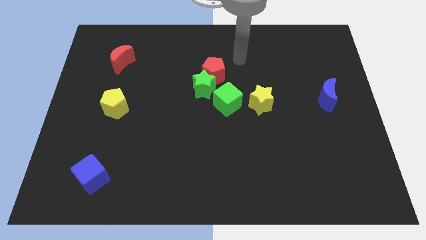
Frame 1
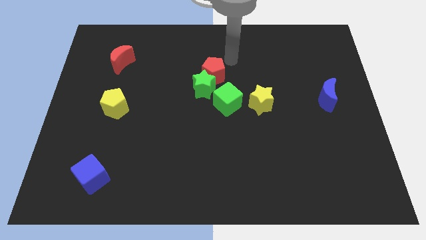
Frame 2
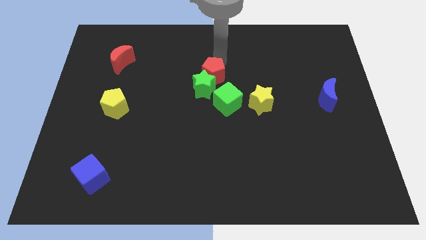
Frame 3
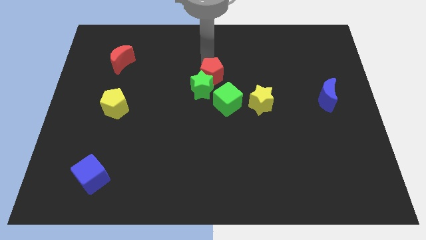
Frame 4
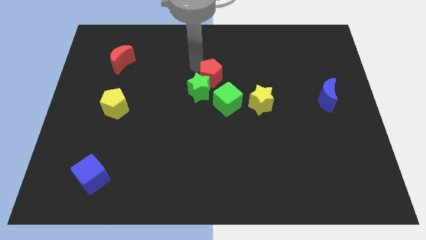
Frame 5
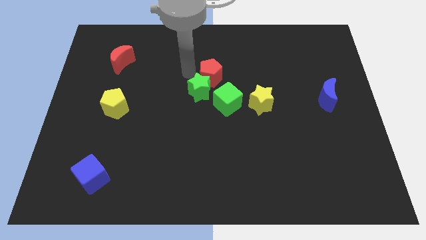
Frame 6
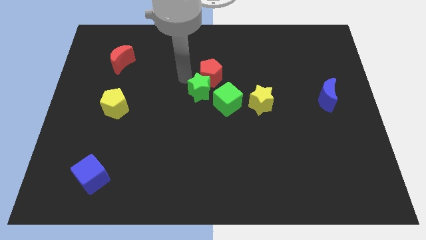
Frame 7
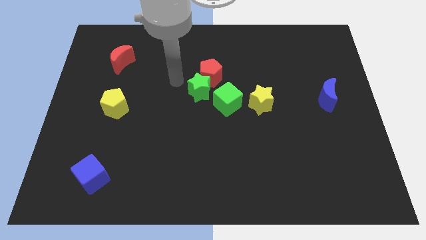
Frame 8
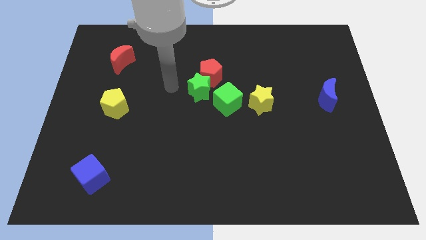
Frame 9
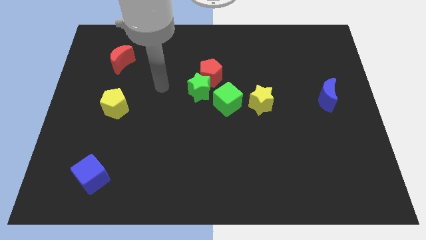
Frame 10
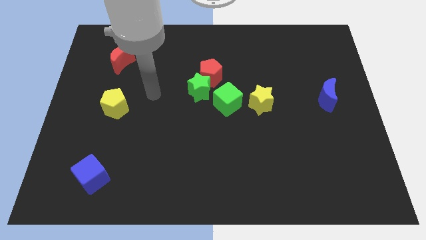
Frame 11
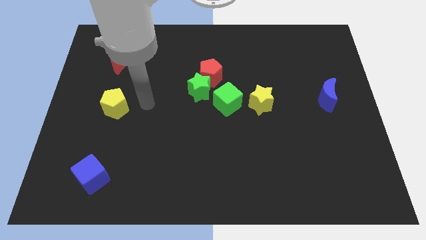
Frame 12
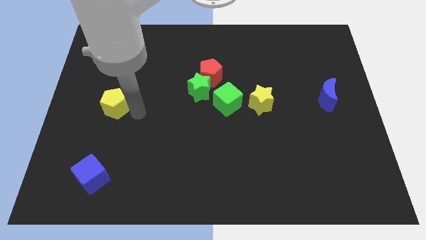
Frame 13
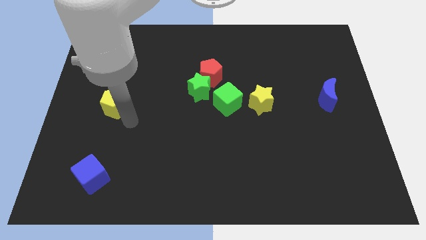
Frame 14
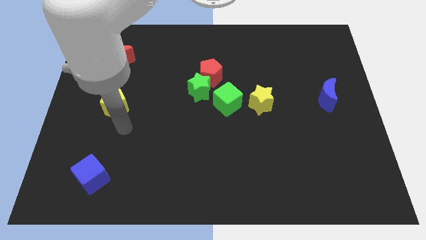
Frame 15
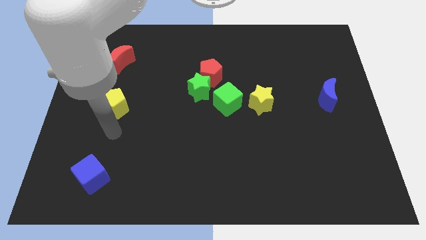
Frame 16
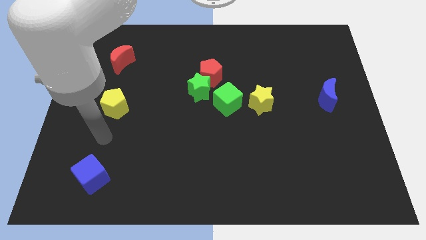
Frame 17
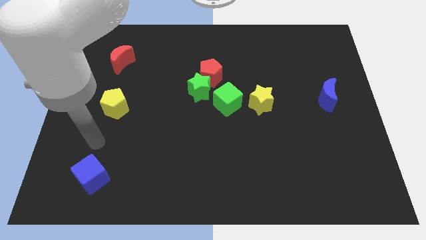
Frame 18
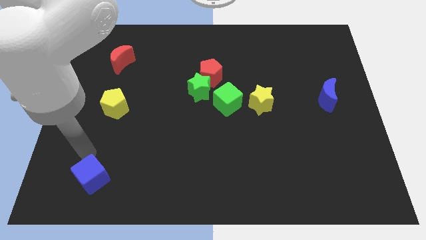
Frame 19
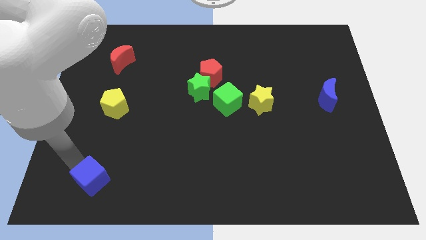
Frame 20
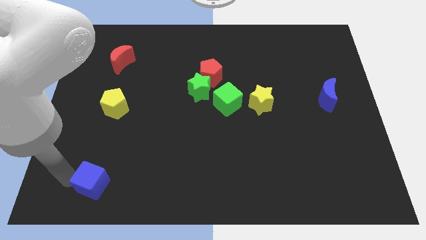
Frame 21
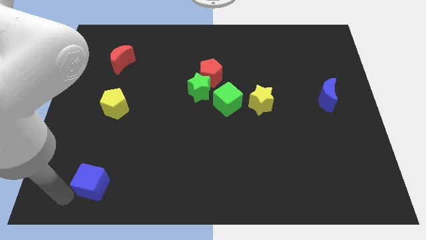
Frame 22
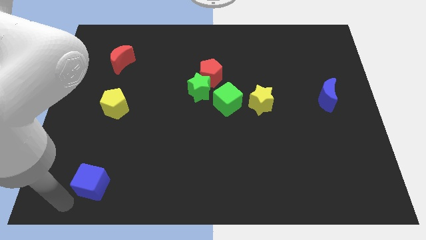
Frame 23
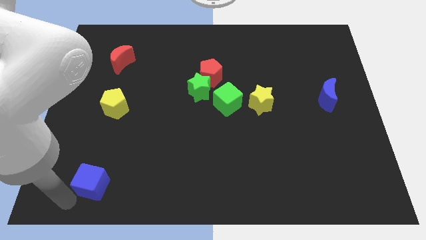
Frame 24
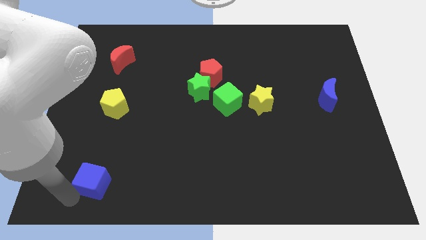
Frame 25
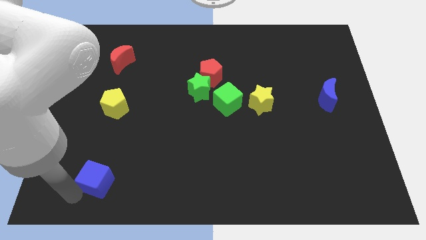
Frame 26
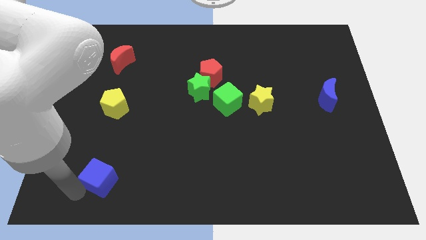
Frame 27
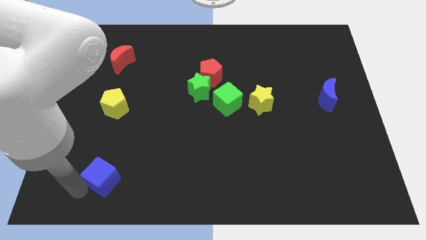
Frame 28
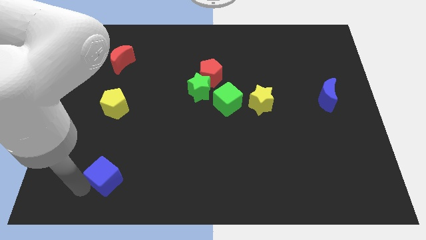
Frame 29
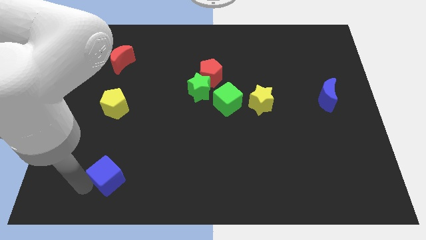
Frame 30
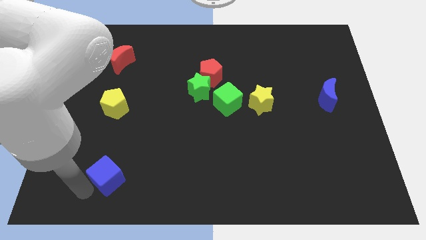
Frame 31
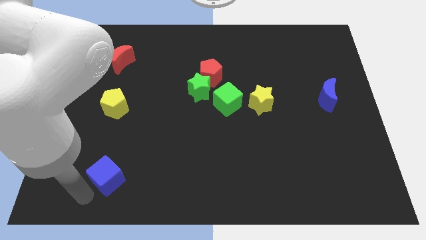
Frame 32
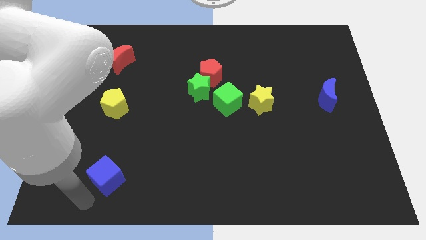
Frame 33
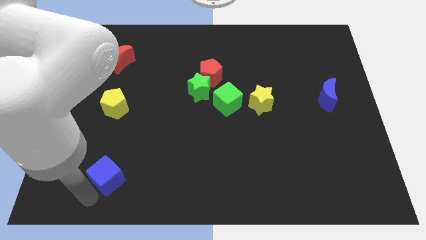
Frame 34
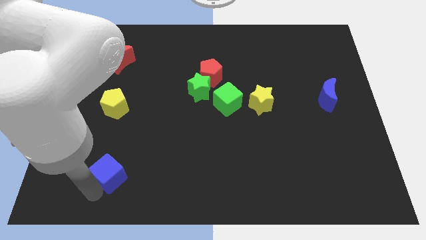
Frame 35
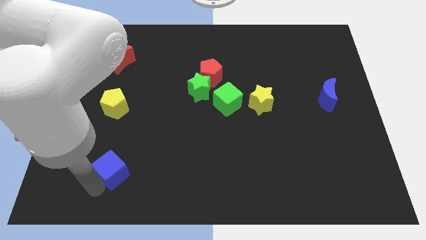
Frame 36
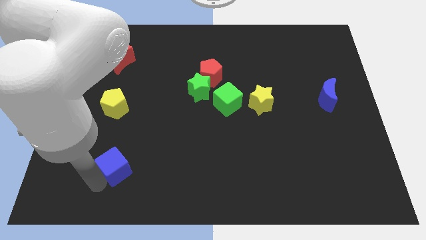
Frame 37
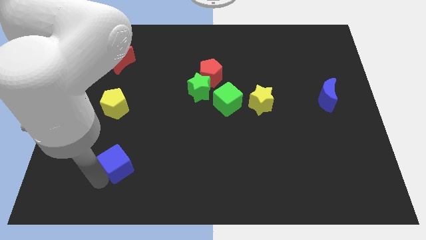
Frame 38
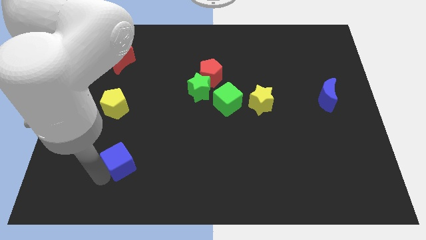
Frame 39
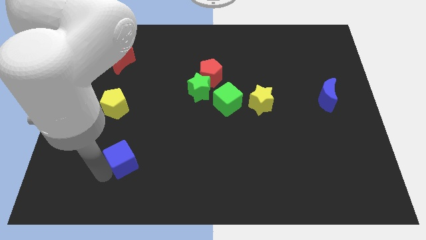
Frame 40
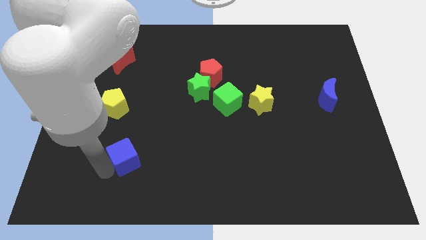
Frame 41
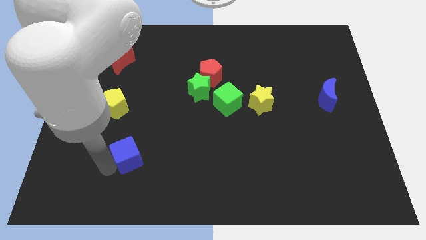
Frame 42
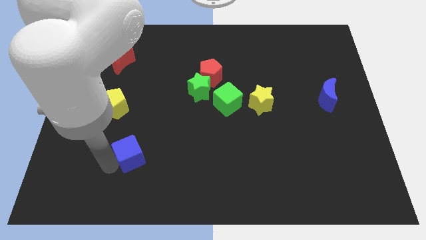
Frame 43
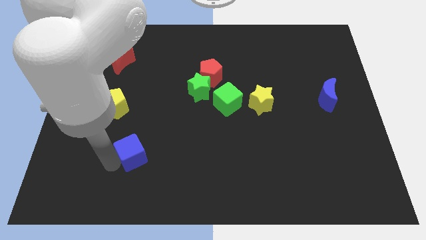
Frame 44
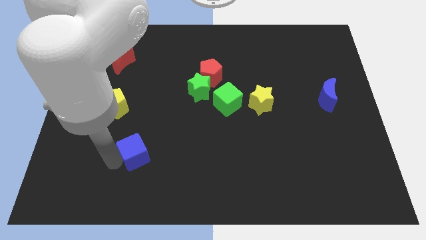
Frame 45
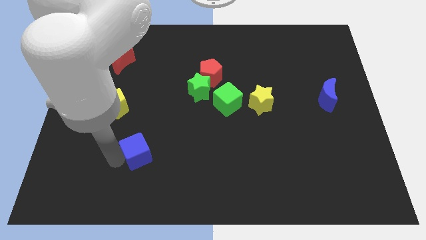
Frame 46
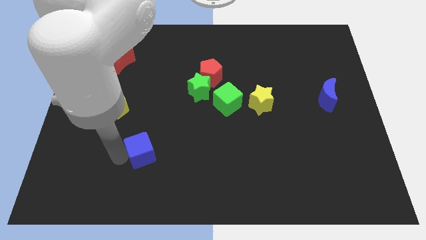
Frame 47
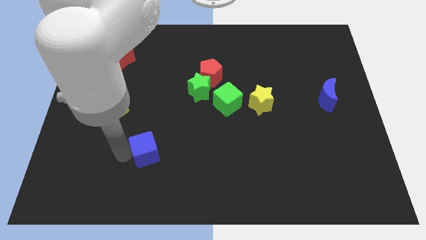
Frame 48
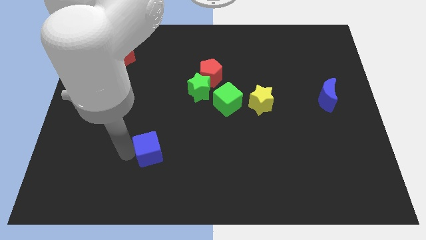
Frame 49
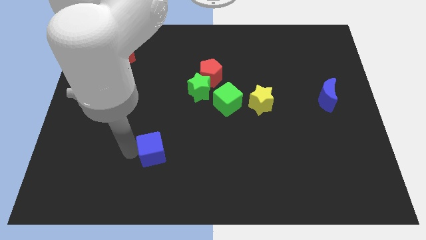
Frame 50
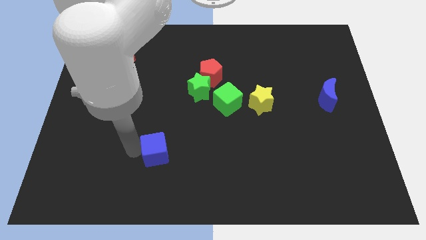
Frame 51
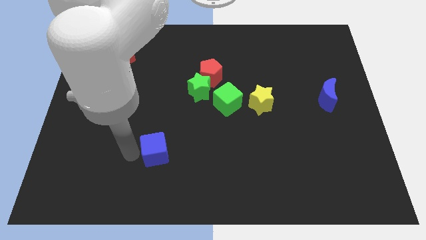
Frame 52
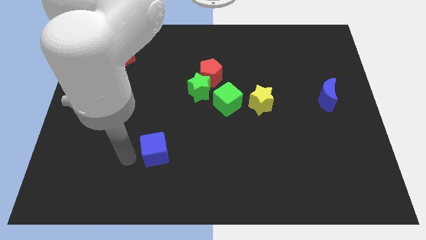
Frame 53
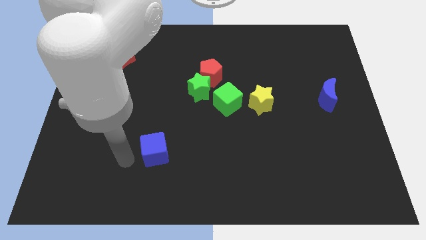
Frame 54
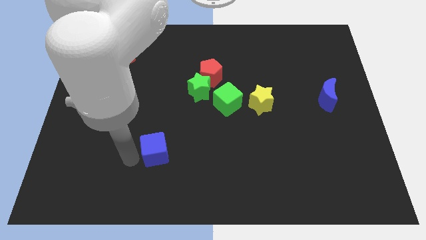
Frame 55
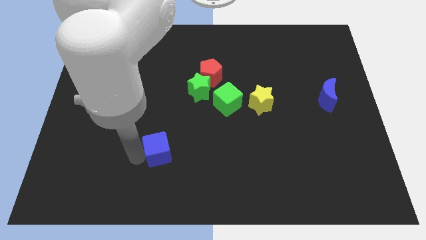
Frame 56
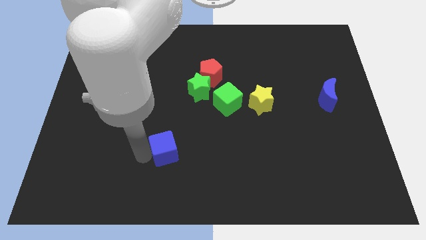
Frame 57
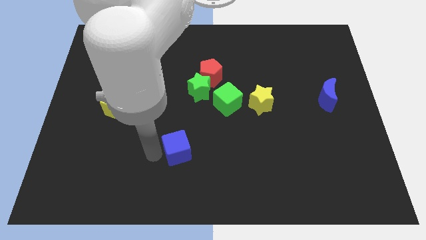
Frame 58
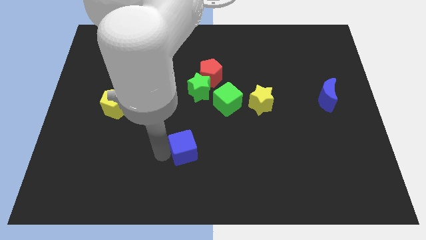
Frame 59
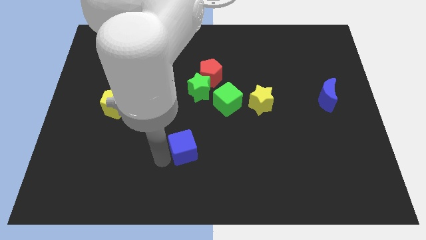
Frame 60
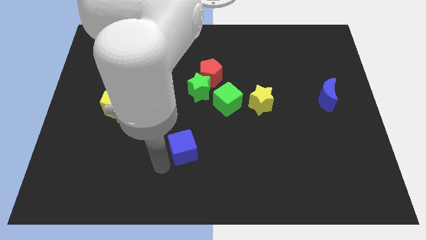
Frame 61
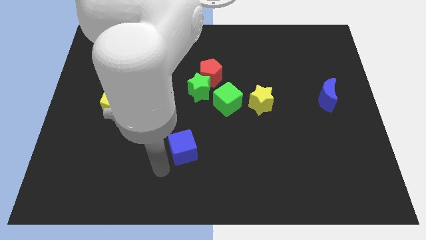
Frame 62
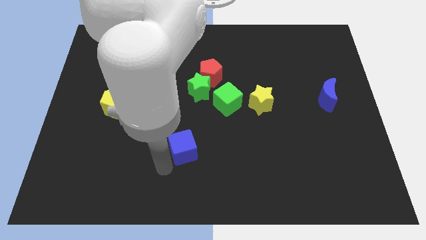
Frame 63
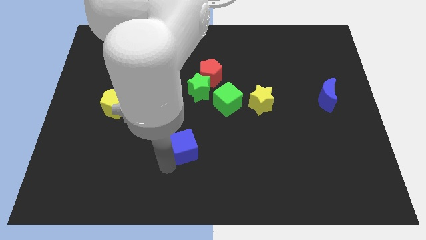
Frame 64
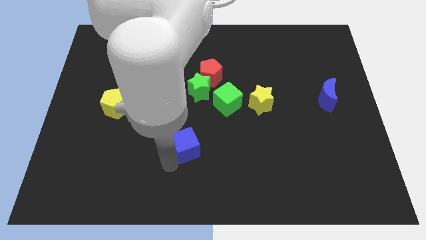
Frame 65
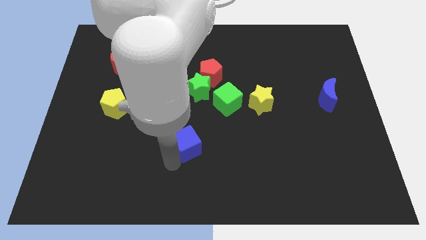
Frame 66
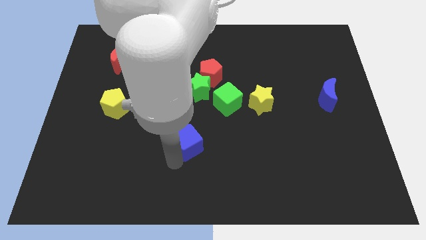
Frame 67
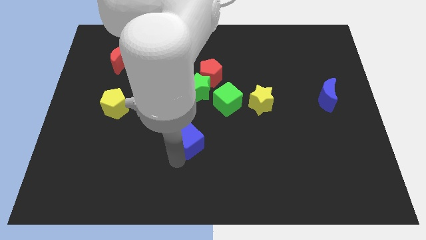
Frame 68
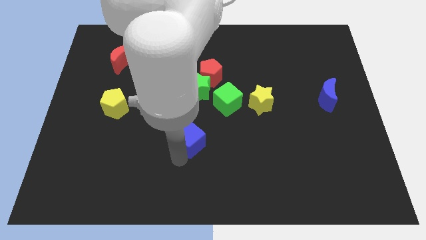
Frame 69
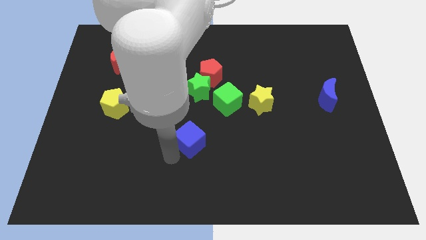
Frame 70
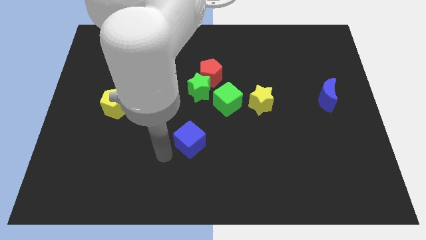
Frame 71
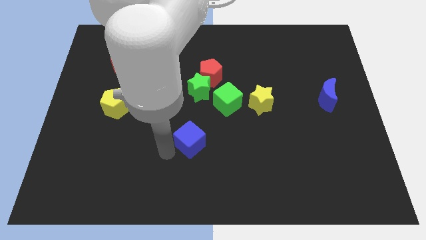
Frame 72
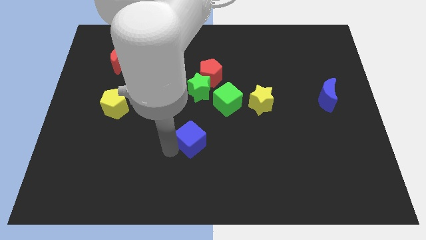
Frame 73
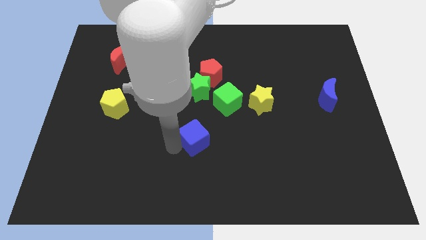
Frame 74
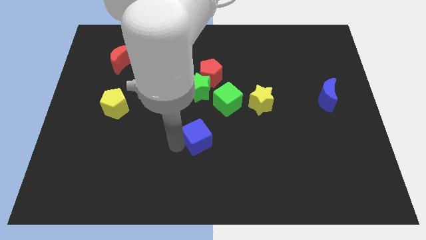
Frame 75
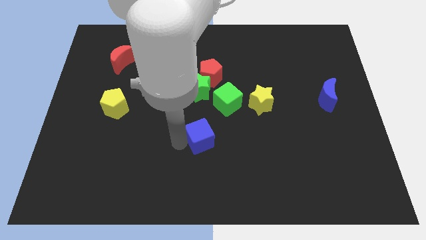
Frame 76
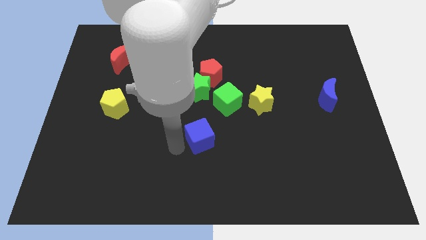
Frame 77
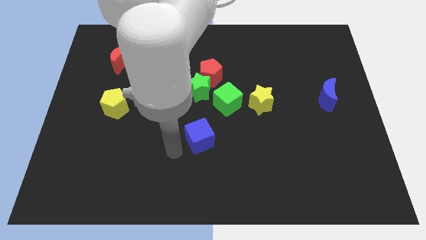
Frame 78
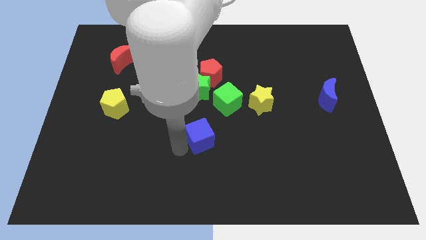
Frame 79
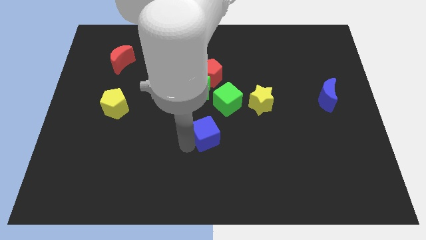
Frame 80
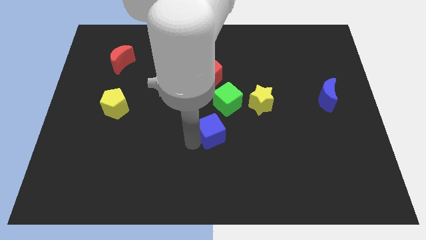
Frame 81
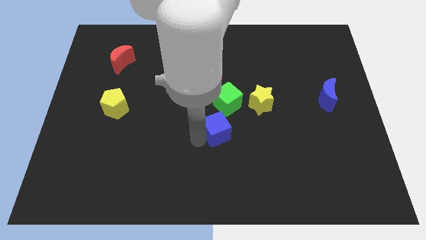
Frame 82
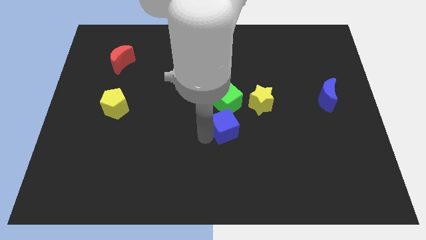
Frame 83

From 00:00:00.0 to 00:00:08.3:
put the blue cube diagonally down and to the left of the yellow star
